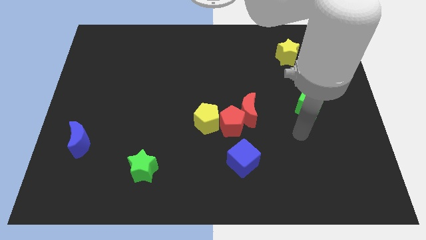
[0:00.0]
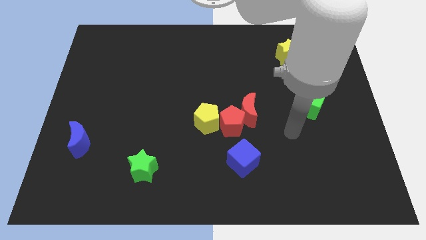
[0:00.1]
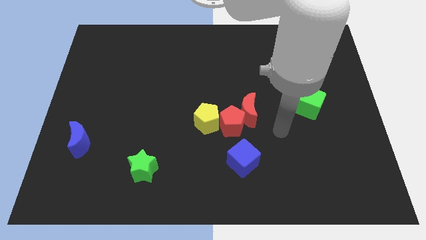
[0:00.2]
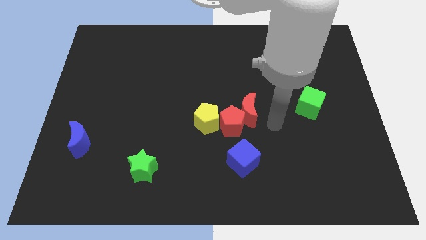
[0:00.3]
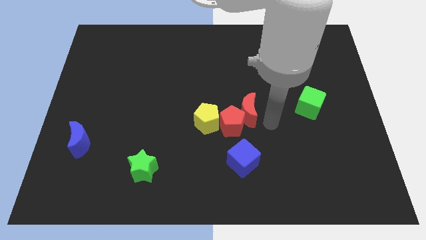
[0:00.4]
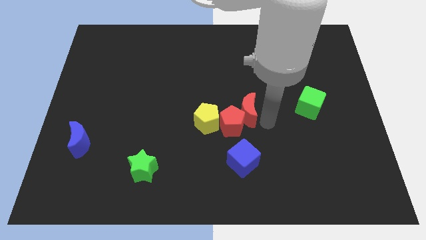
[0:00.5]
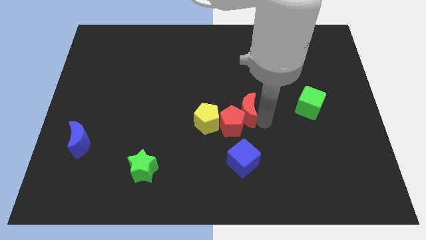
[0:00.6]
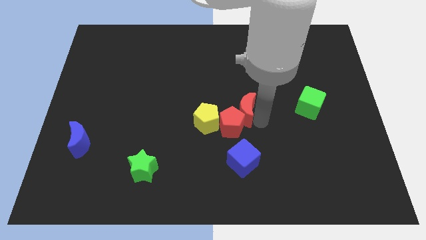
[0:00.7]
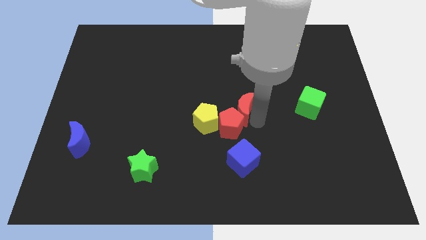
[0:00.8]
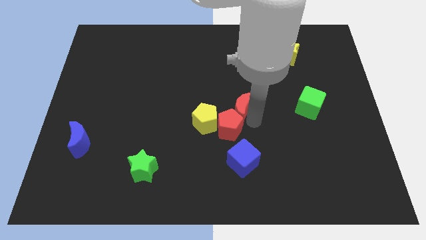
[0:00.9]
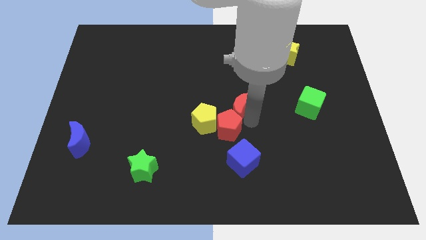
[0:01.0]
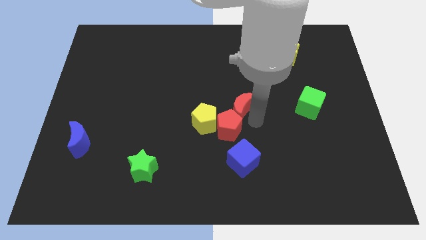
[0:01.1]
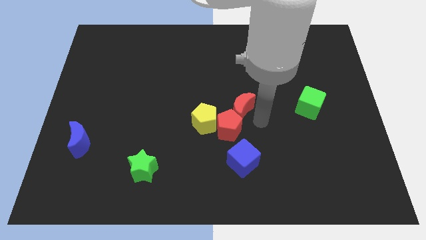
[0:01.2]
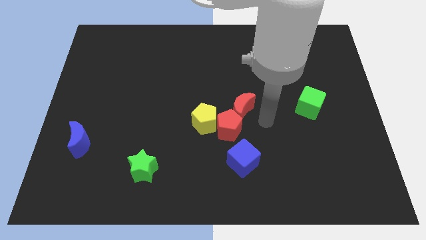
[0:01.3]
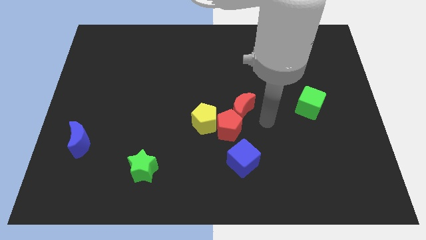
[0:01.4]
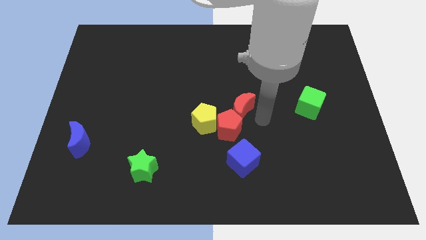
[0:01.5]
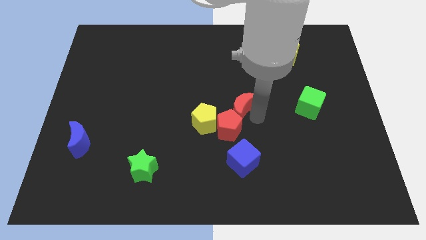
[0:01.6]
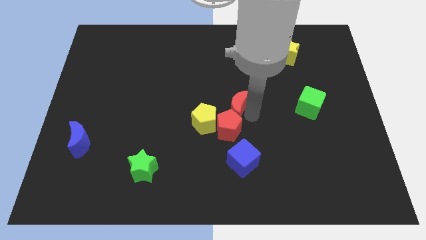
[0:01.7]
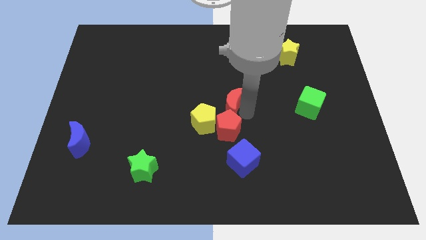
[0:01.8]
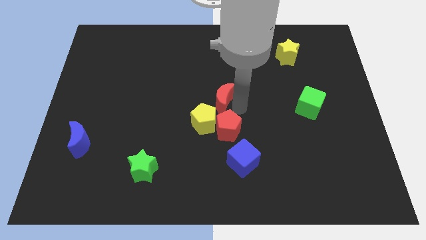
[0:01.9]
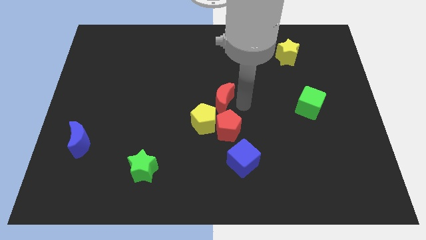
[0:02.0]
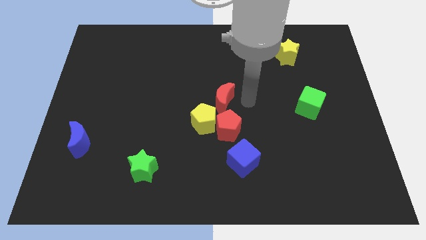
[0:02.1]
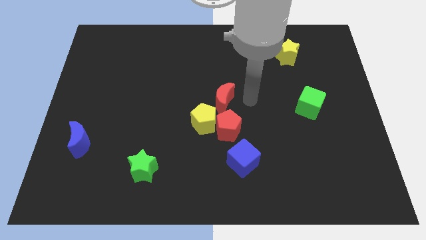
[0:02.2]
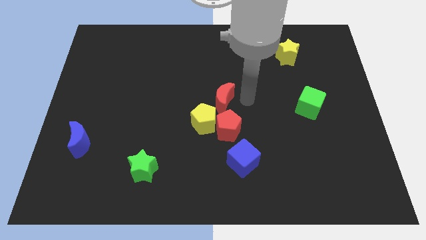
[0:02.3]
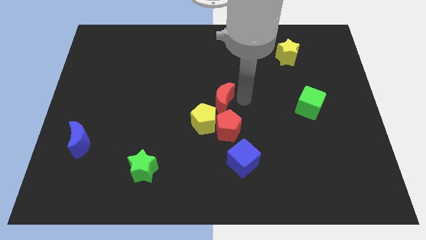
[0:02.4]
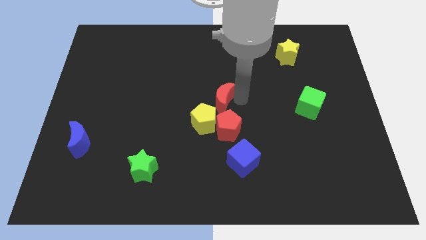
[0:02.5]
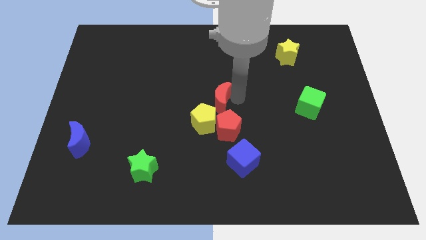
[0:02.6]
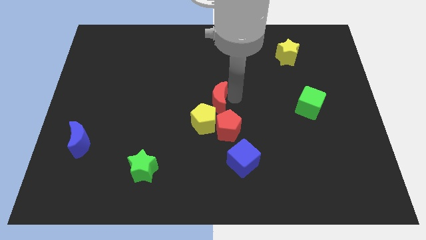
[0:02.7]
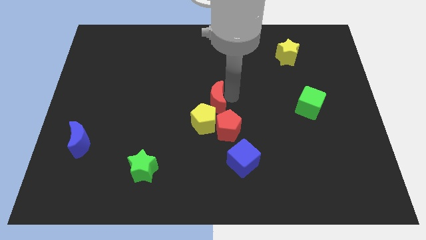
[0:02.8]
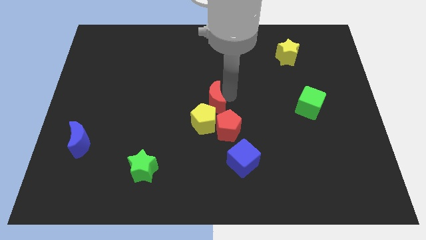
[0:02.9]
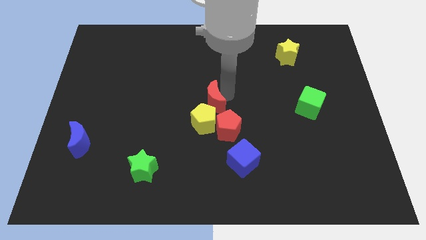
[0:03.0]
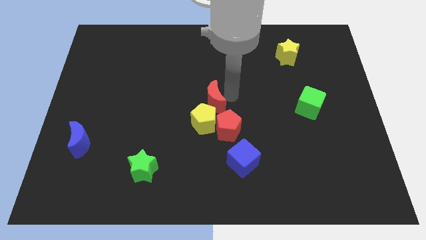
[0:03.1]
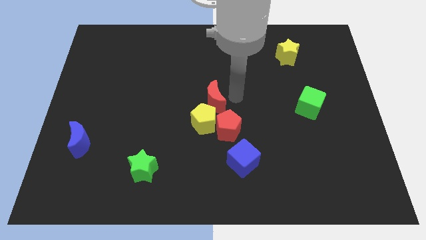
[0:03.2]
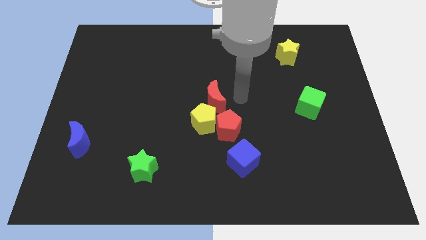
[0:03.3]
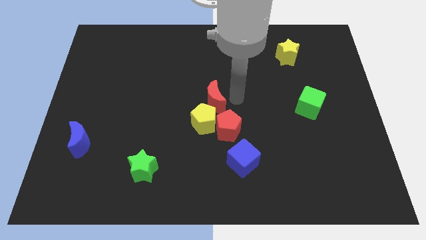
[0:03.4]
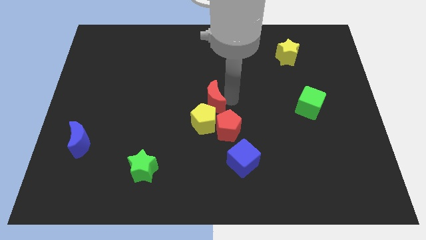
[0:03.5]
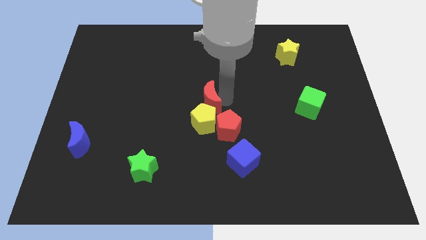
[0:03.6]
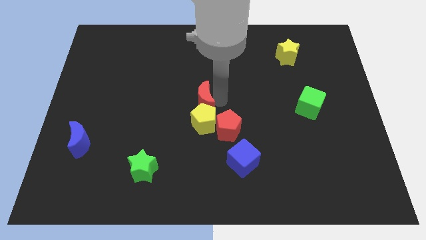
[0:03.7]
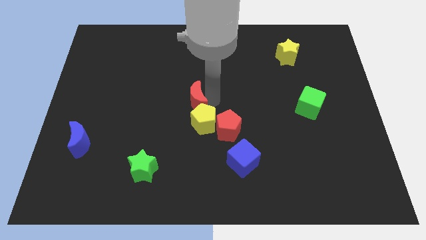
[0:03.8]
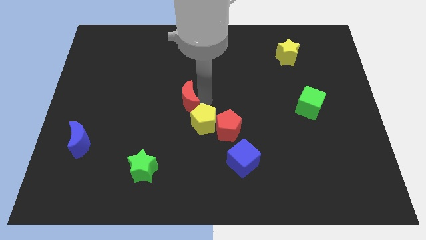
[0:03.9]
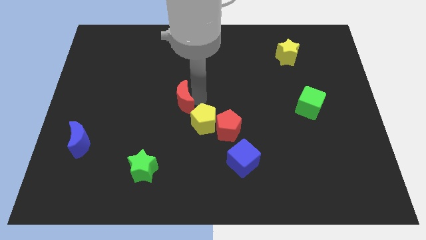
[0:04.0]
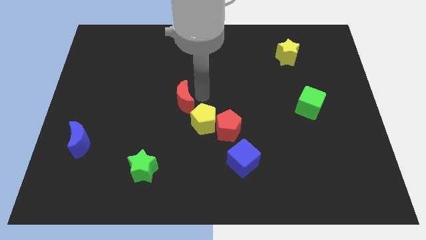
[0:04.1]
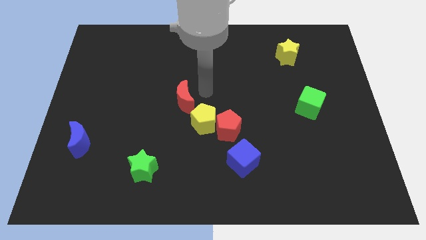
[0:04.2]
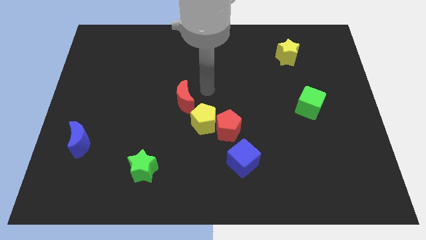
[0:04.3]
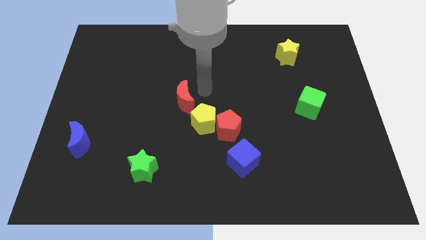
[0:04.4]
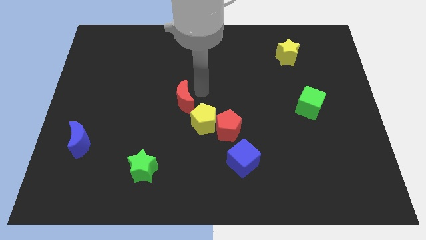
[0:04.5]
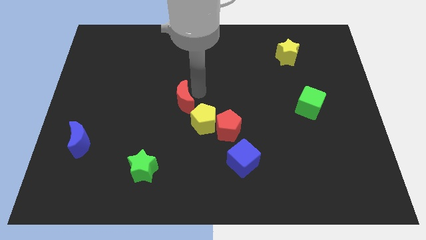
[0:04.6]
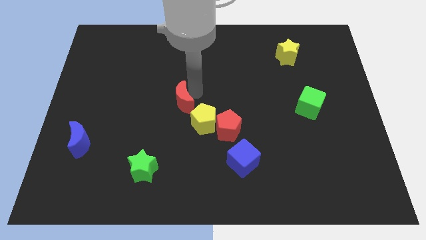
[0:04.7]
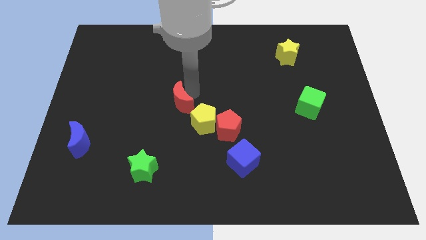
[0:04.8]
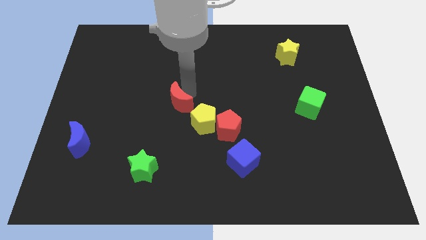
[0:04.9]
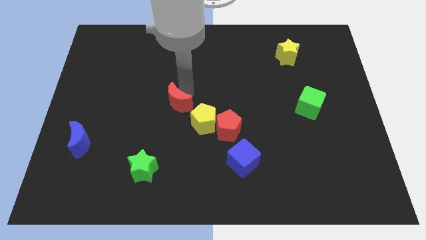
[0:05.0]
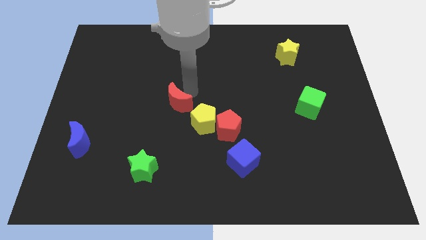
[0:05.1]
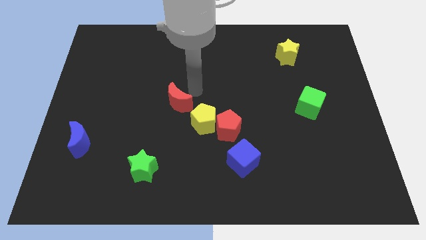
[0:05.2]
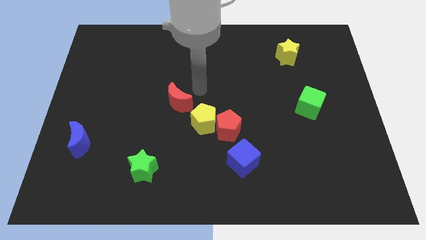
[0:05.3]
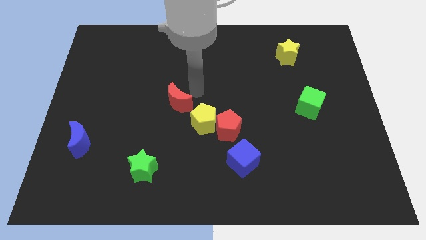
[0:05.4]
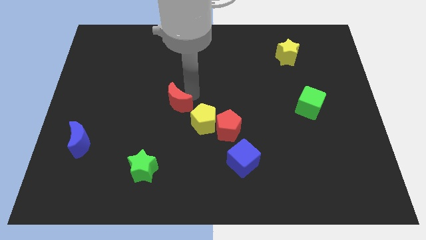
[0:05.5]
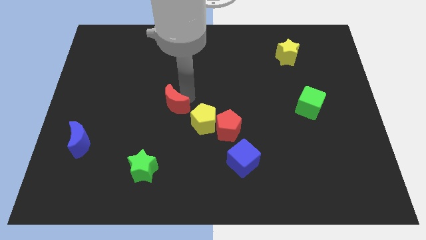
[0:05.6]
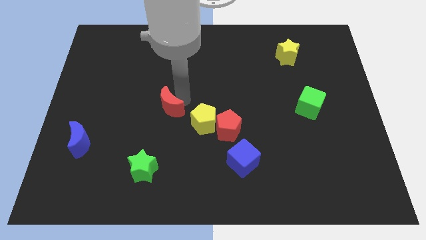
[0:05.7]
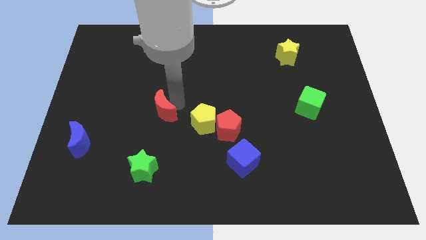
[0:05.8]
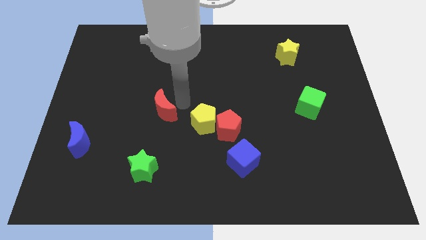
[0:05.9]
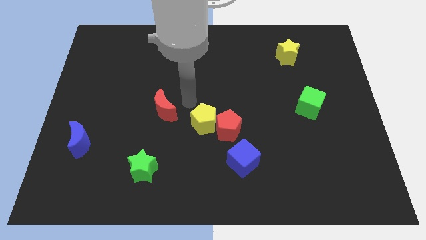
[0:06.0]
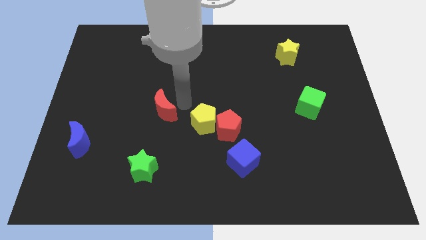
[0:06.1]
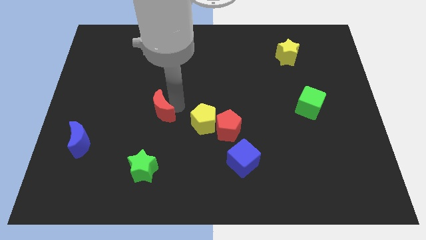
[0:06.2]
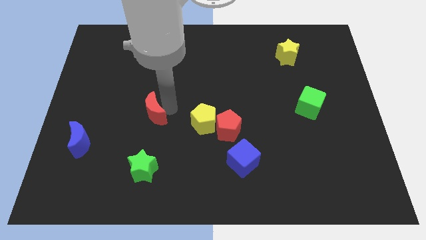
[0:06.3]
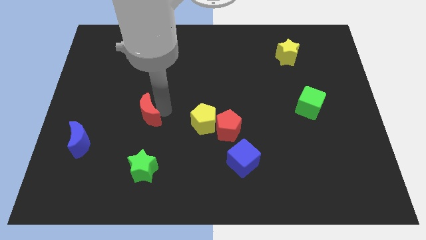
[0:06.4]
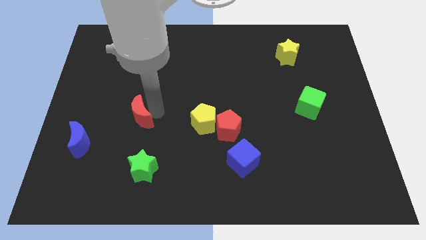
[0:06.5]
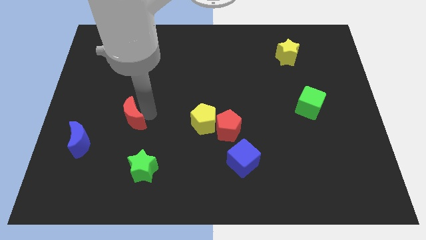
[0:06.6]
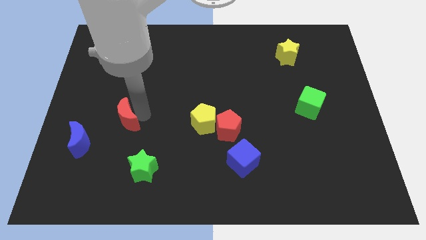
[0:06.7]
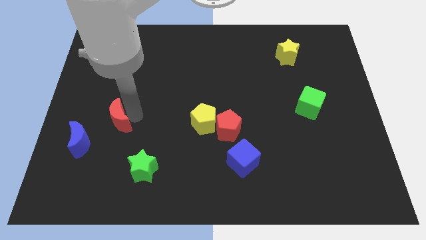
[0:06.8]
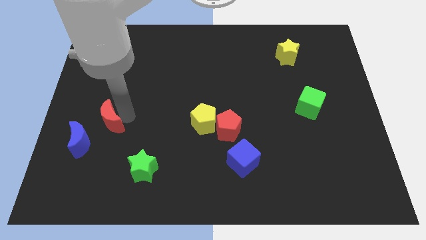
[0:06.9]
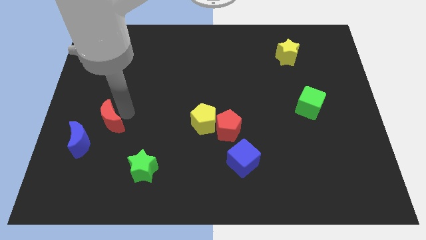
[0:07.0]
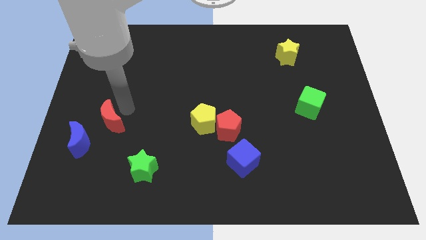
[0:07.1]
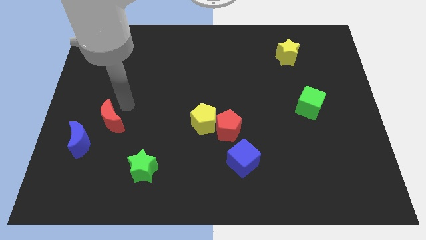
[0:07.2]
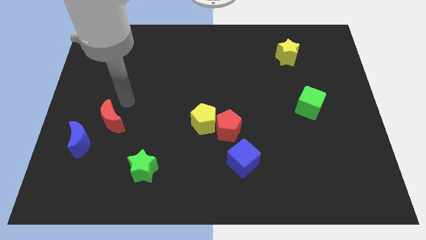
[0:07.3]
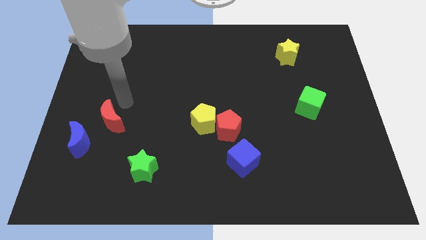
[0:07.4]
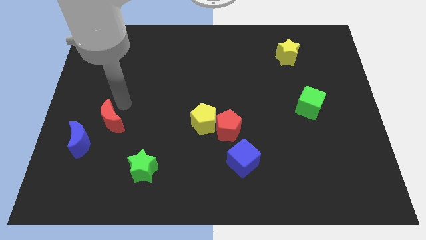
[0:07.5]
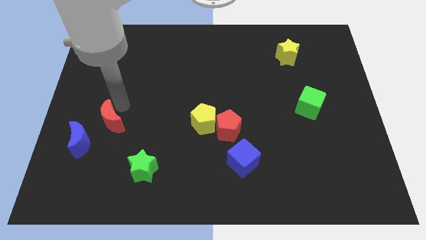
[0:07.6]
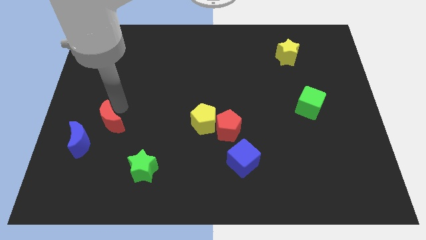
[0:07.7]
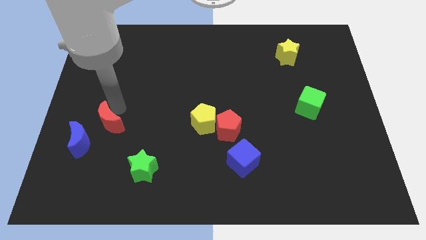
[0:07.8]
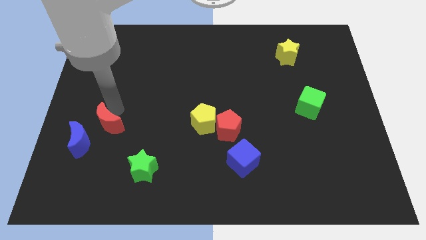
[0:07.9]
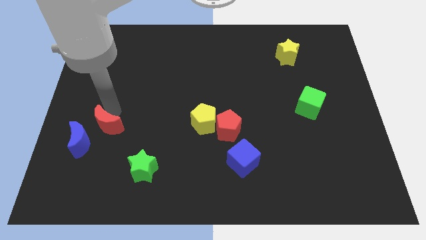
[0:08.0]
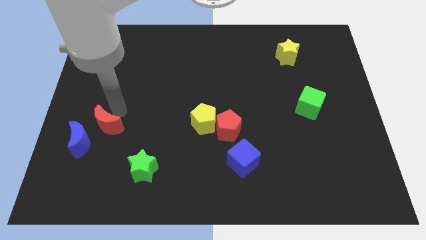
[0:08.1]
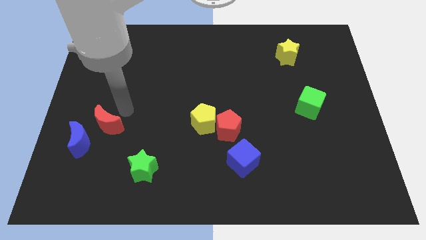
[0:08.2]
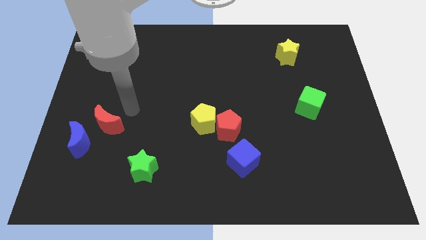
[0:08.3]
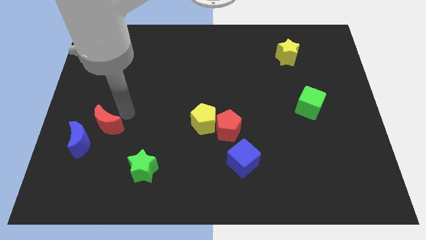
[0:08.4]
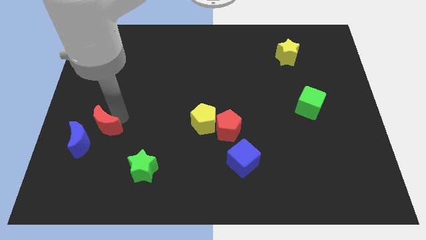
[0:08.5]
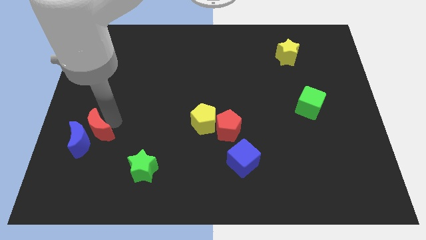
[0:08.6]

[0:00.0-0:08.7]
slide the red moon next to the blue moon
